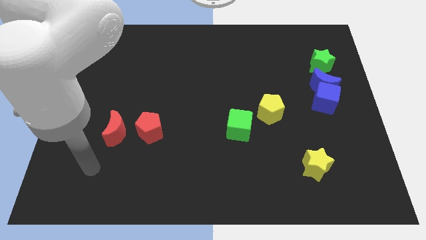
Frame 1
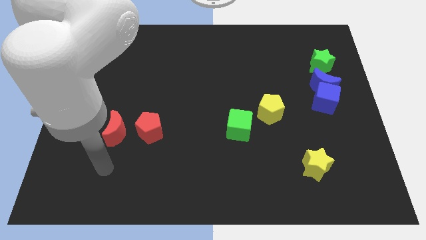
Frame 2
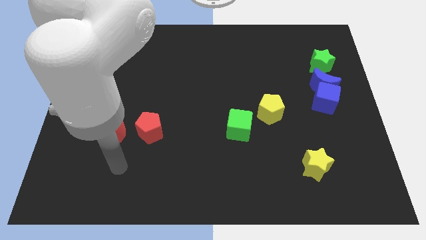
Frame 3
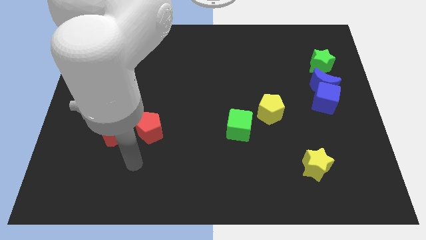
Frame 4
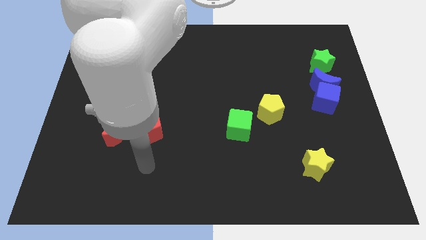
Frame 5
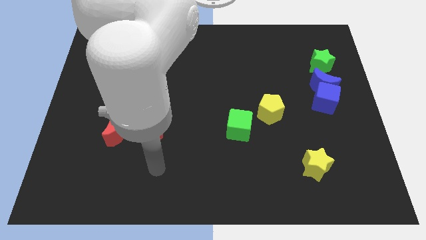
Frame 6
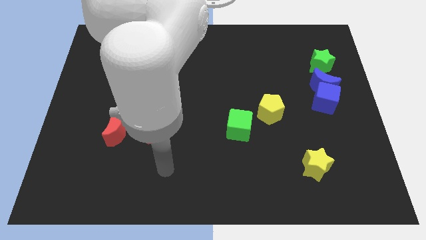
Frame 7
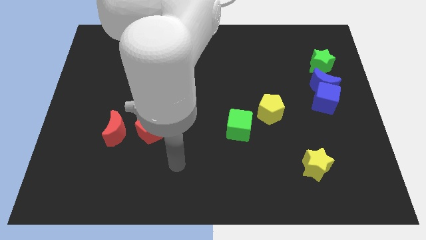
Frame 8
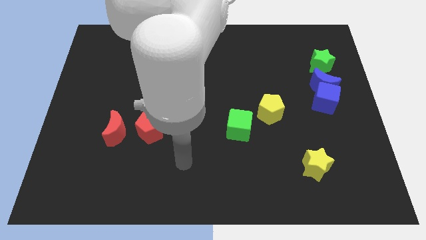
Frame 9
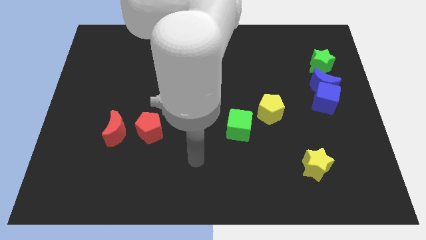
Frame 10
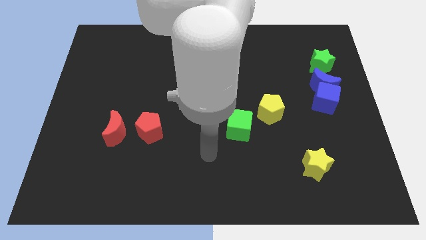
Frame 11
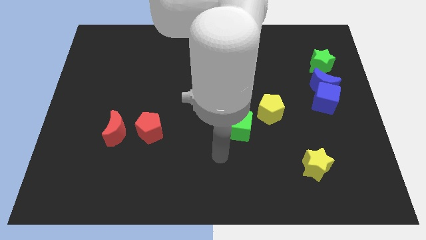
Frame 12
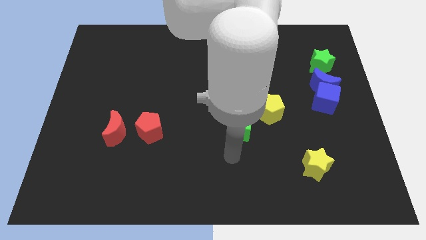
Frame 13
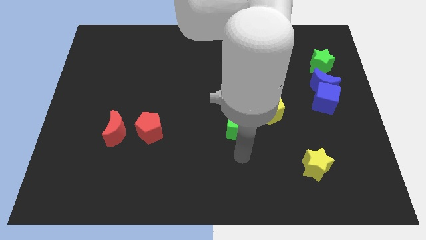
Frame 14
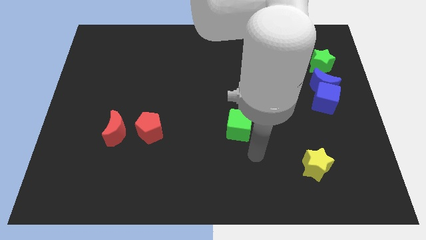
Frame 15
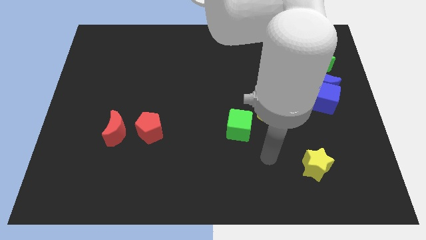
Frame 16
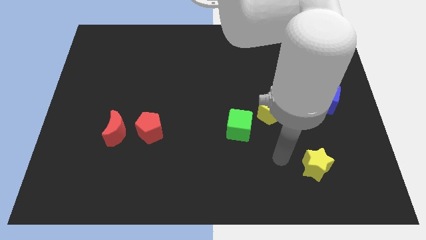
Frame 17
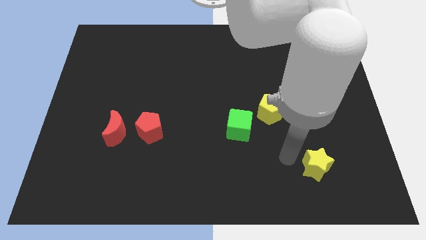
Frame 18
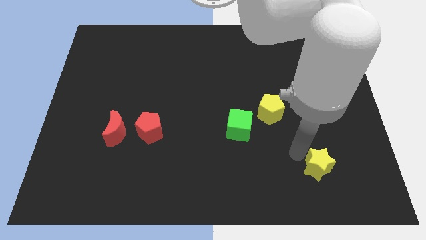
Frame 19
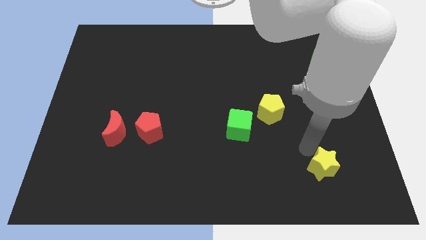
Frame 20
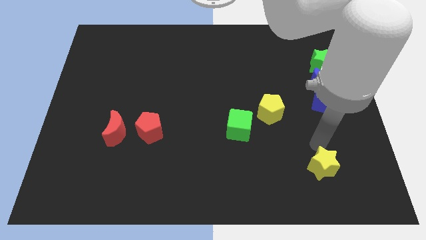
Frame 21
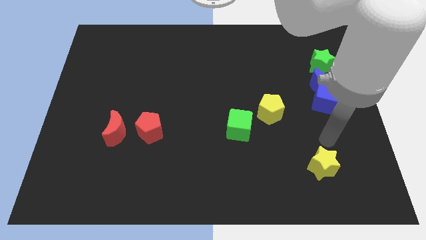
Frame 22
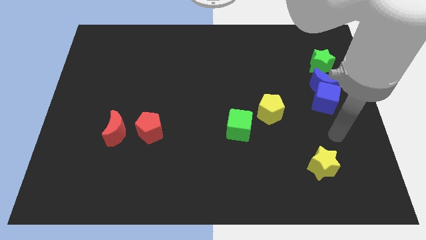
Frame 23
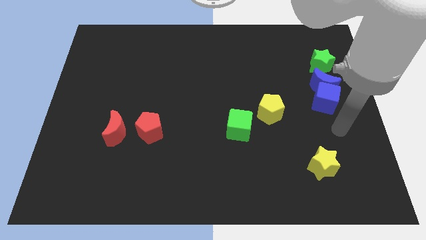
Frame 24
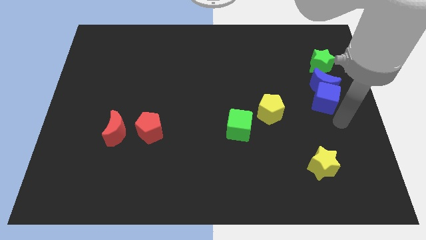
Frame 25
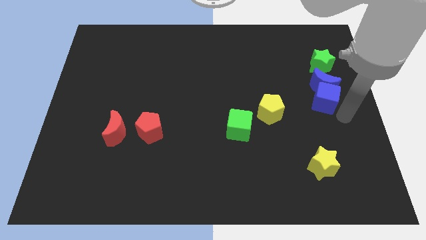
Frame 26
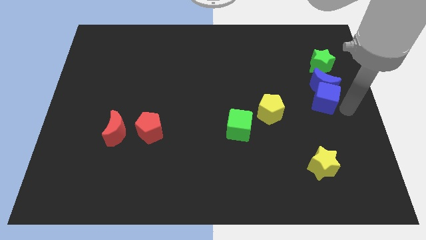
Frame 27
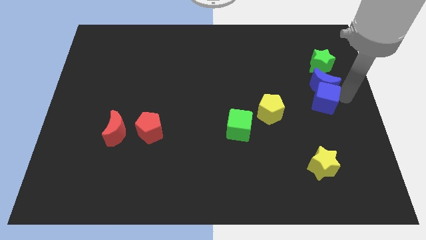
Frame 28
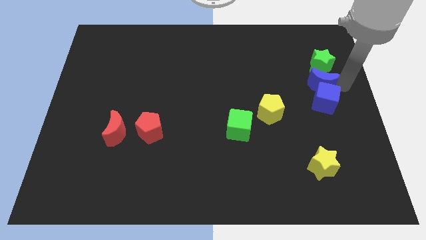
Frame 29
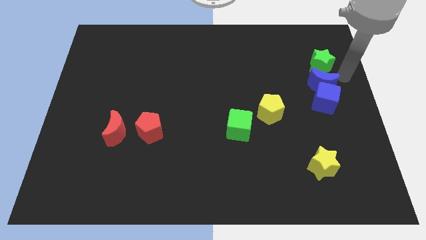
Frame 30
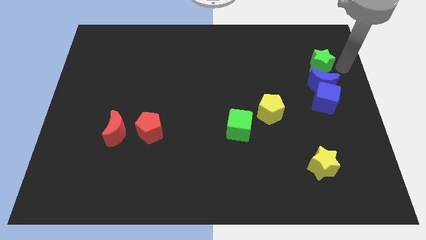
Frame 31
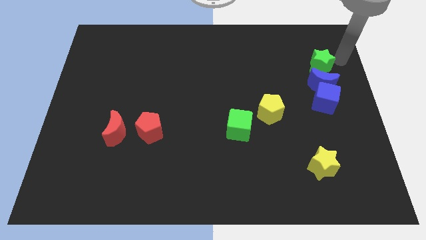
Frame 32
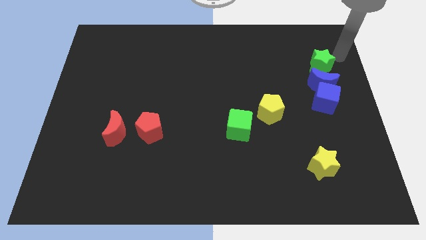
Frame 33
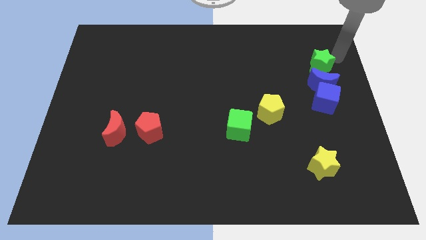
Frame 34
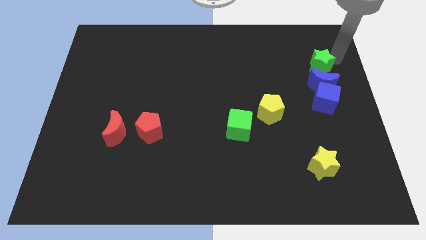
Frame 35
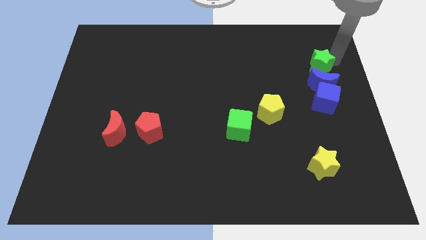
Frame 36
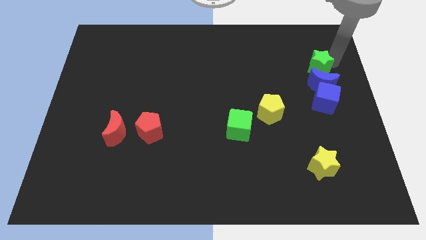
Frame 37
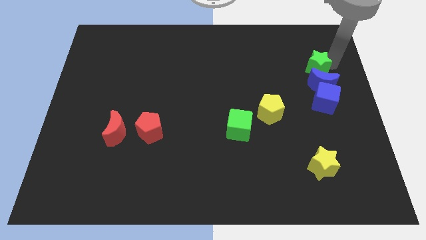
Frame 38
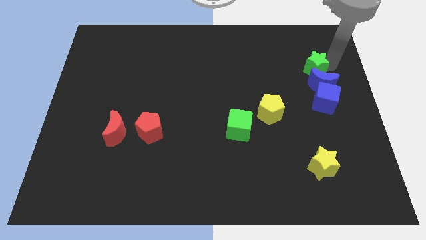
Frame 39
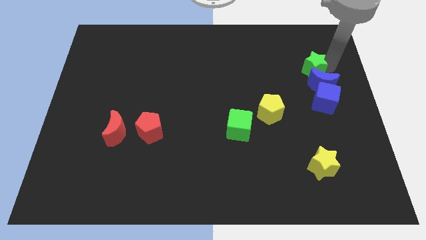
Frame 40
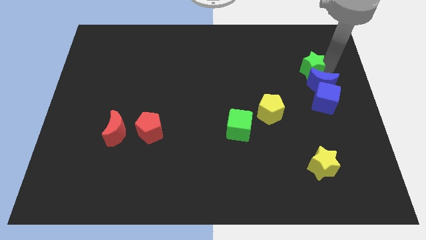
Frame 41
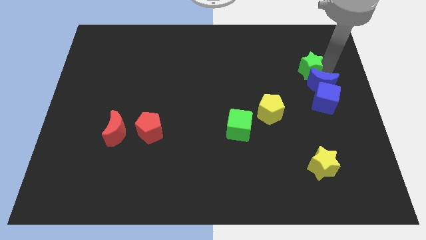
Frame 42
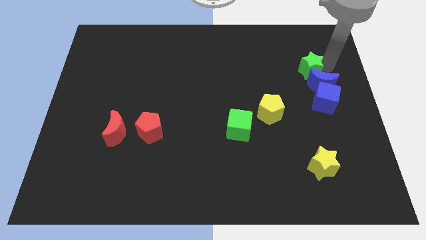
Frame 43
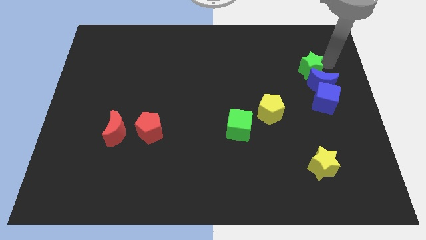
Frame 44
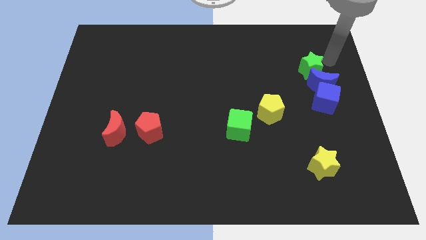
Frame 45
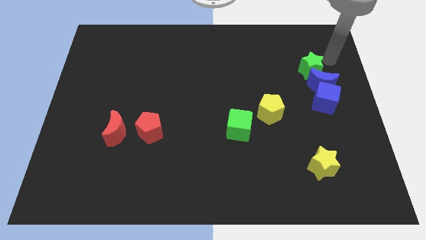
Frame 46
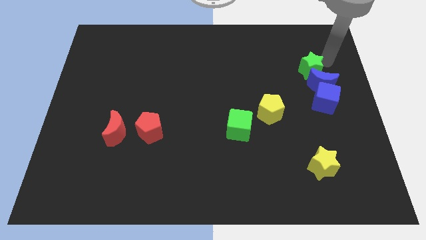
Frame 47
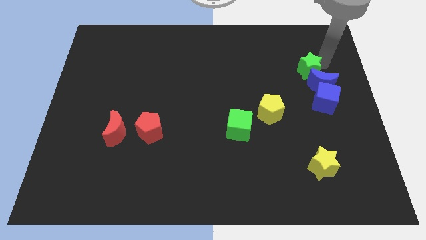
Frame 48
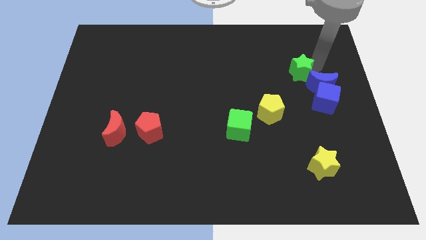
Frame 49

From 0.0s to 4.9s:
put the green star just left of the blue moon

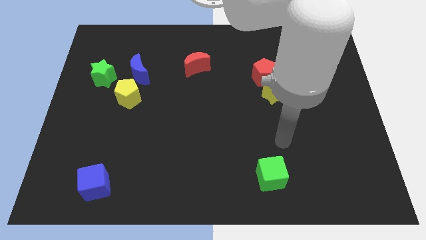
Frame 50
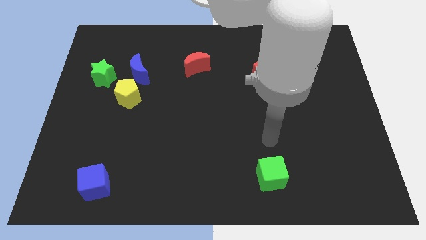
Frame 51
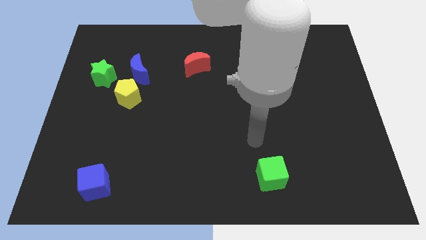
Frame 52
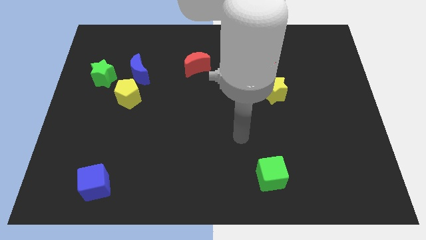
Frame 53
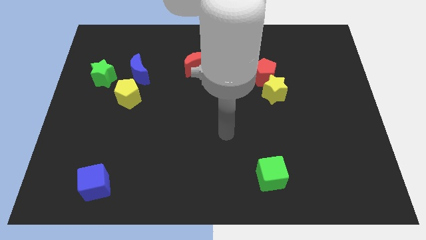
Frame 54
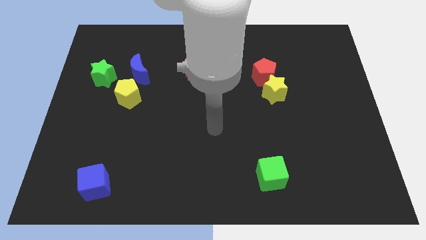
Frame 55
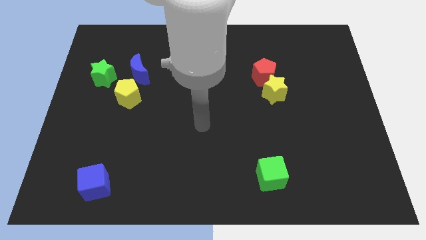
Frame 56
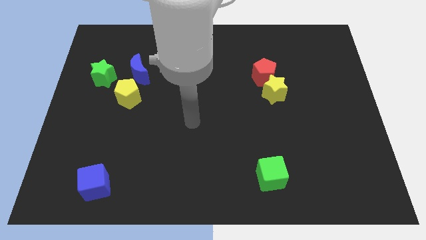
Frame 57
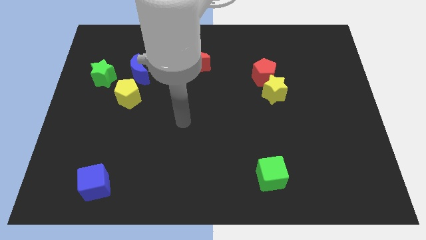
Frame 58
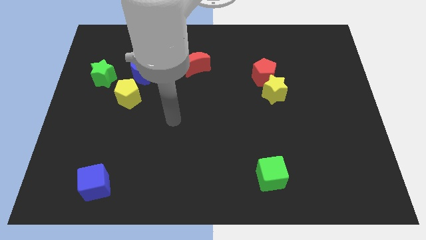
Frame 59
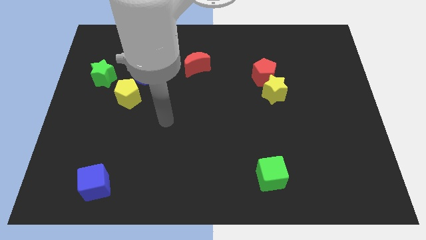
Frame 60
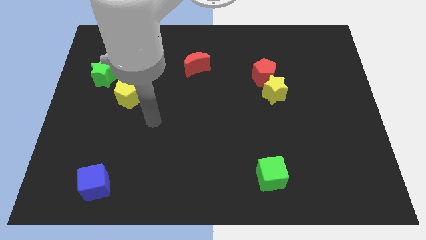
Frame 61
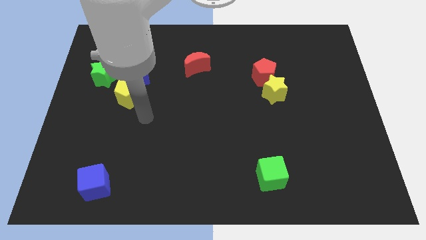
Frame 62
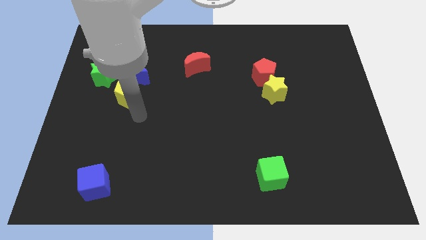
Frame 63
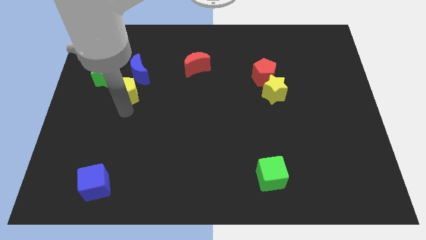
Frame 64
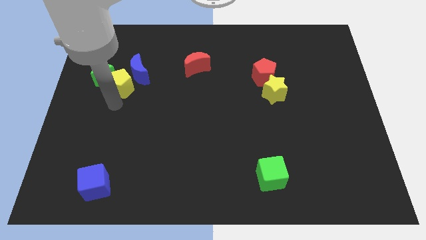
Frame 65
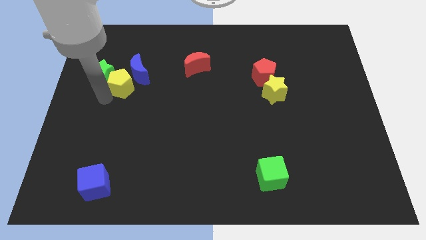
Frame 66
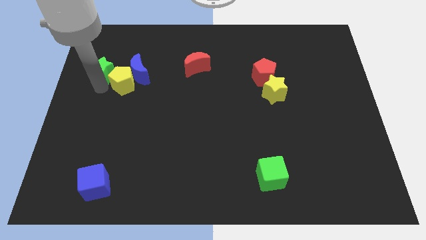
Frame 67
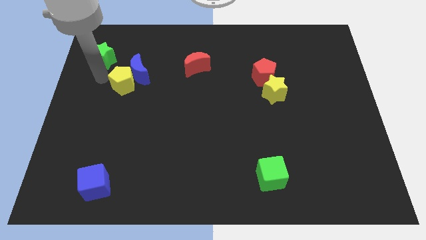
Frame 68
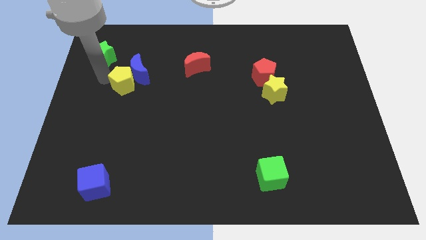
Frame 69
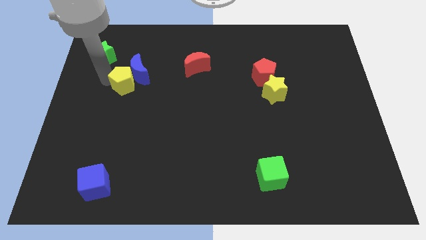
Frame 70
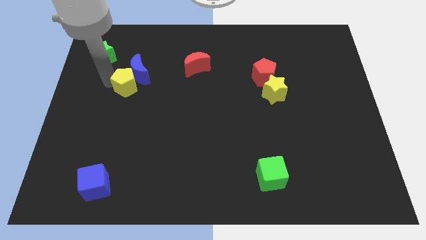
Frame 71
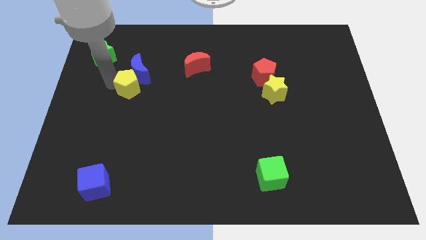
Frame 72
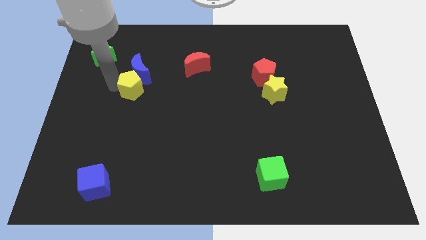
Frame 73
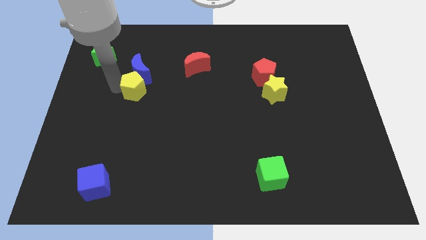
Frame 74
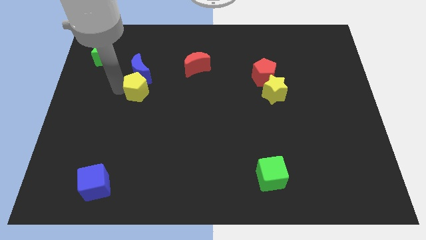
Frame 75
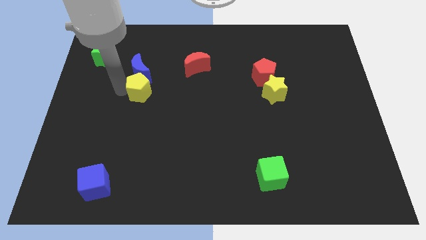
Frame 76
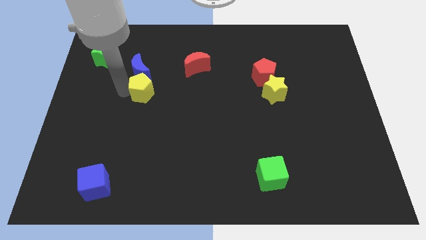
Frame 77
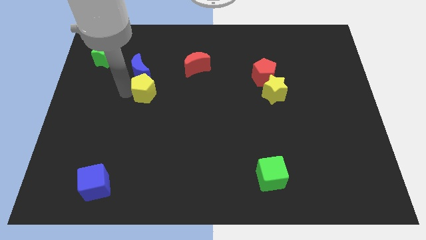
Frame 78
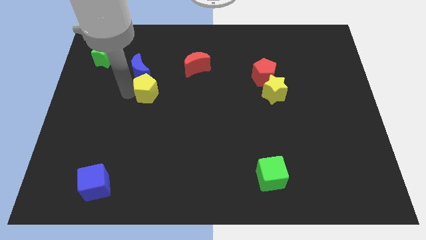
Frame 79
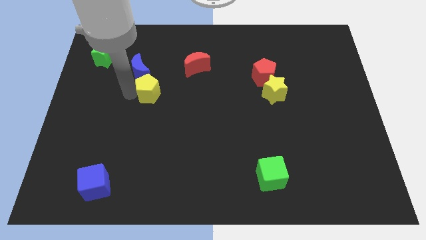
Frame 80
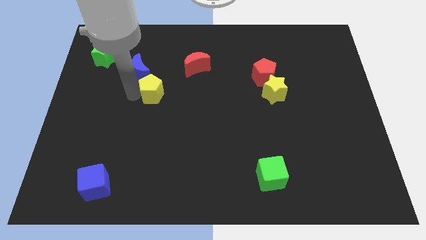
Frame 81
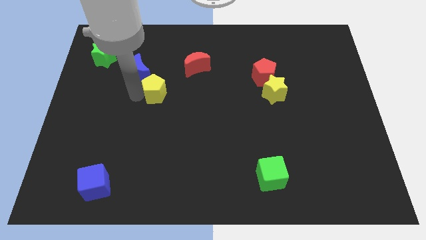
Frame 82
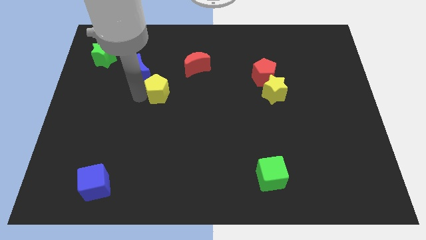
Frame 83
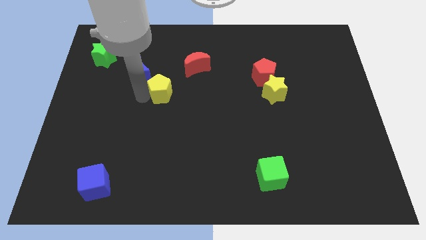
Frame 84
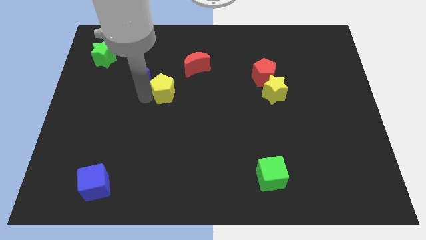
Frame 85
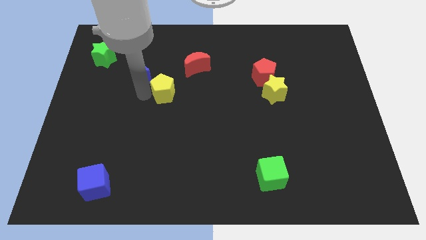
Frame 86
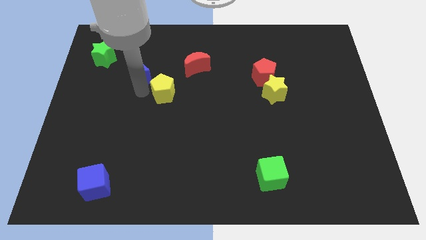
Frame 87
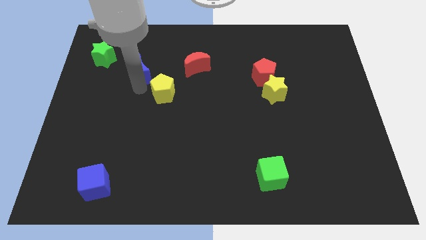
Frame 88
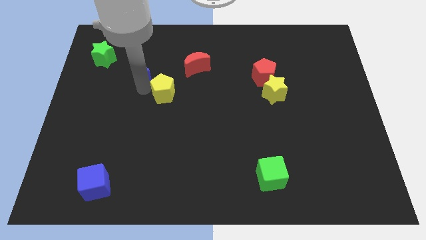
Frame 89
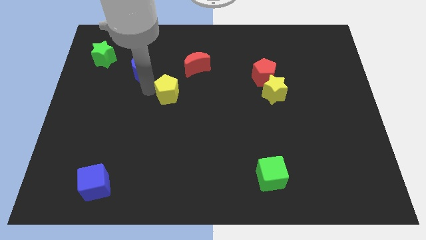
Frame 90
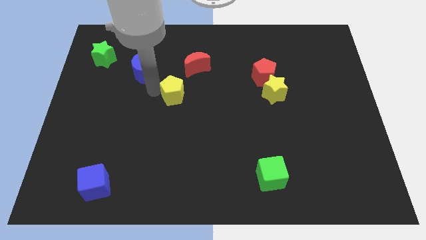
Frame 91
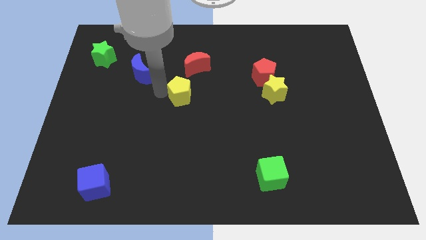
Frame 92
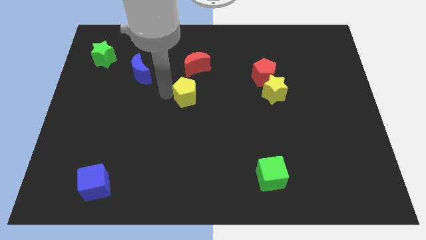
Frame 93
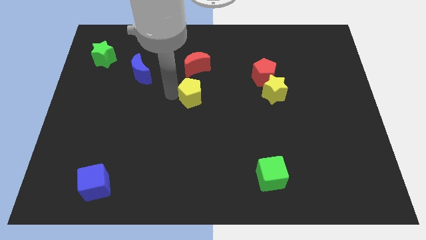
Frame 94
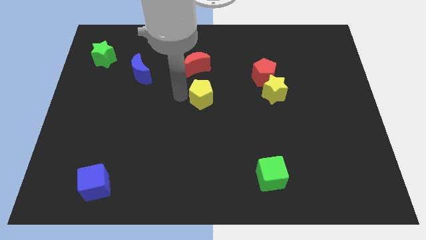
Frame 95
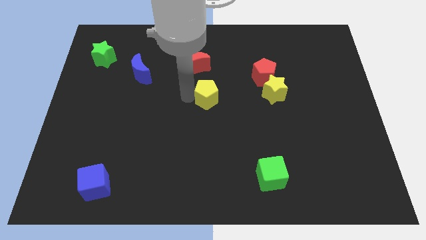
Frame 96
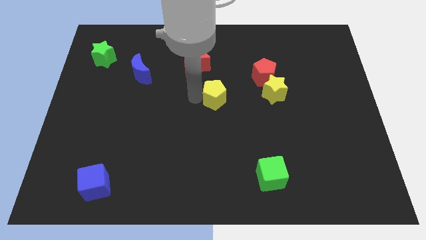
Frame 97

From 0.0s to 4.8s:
put the yellow pentagon just left of the yellow star
